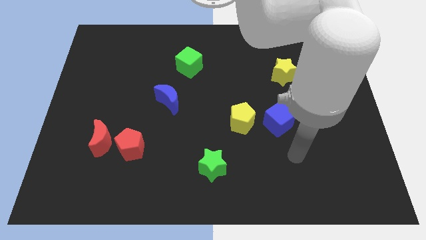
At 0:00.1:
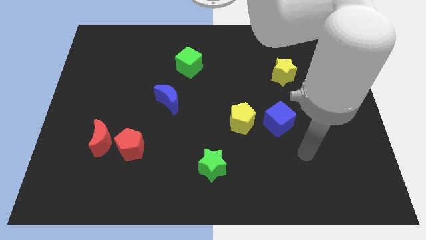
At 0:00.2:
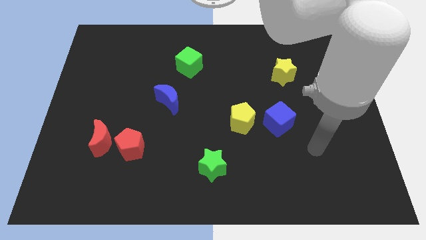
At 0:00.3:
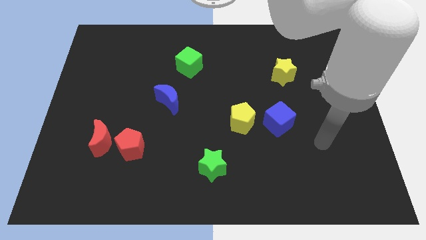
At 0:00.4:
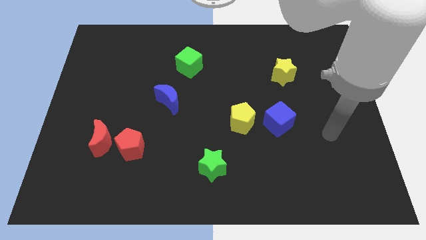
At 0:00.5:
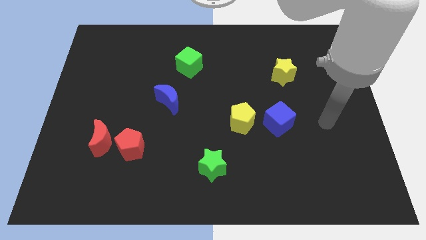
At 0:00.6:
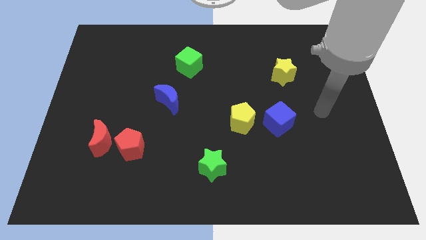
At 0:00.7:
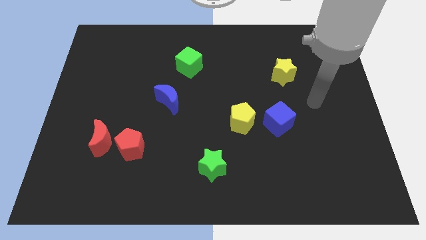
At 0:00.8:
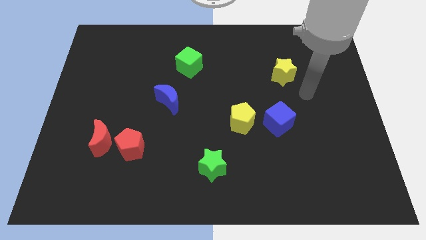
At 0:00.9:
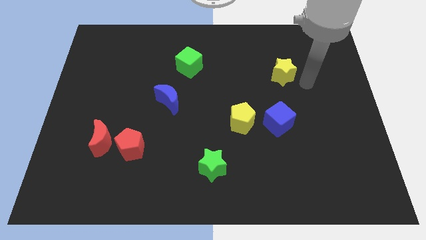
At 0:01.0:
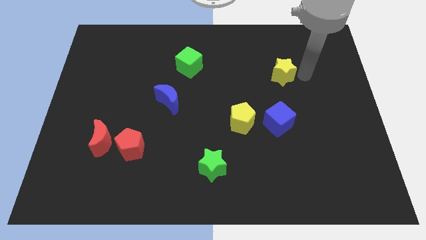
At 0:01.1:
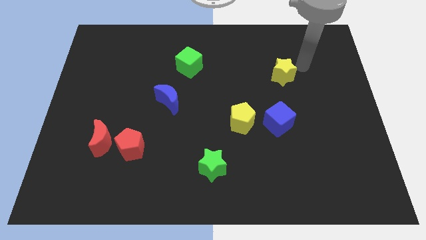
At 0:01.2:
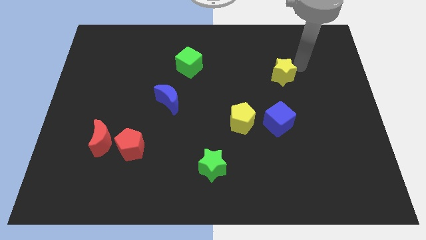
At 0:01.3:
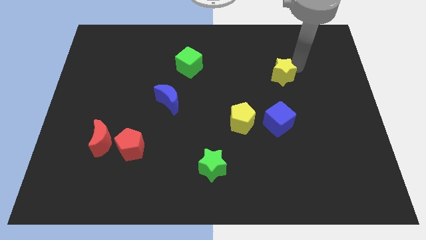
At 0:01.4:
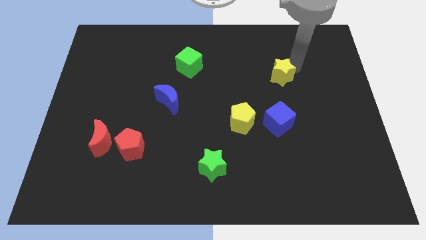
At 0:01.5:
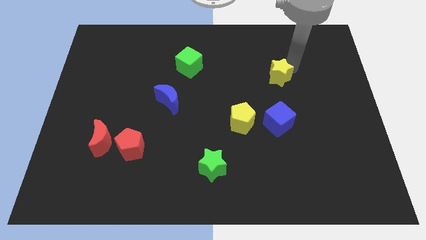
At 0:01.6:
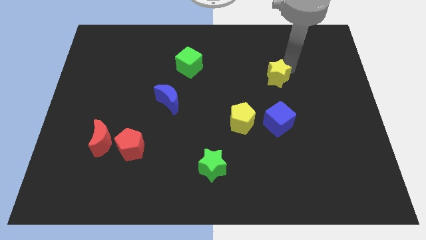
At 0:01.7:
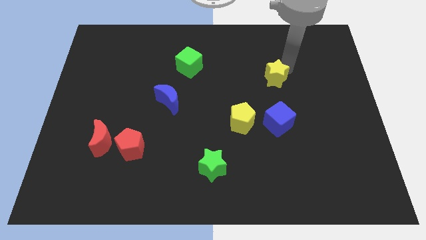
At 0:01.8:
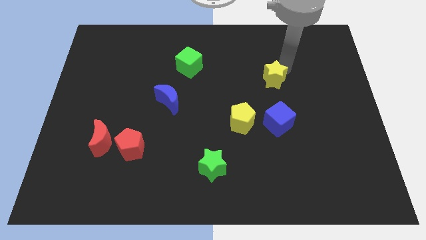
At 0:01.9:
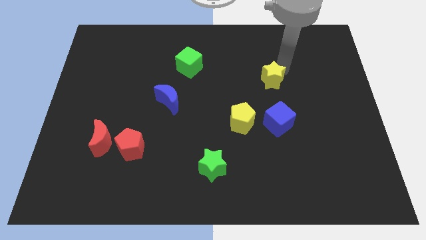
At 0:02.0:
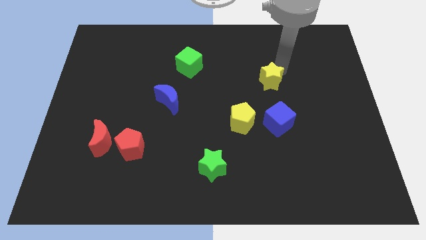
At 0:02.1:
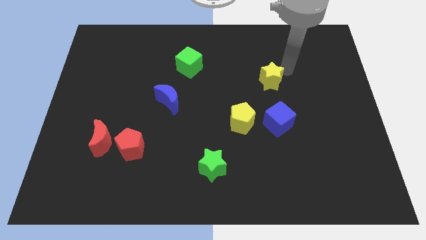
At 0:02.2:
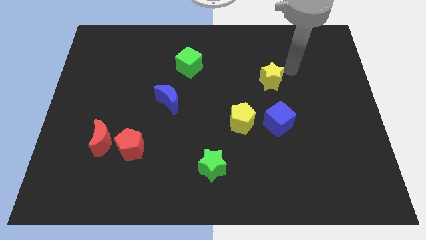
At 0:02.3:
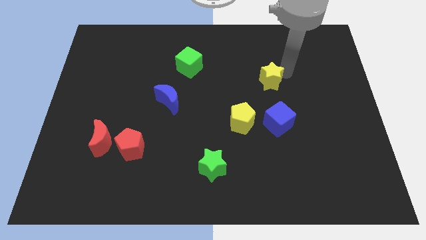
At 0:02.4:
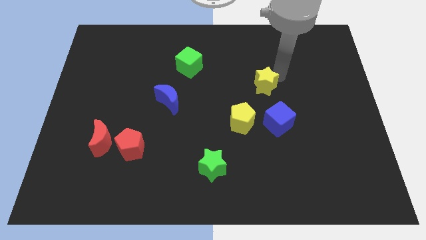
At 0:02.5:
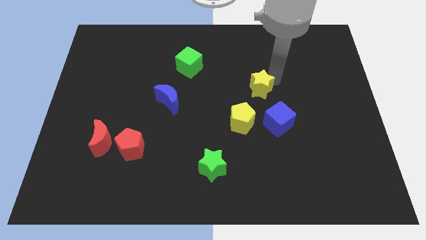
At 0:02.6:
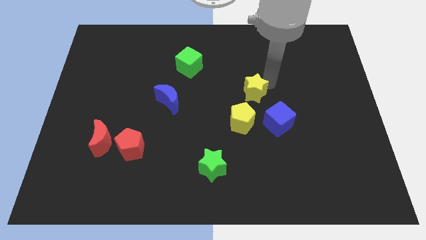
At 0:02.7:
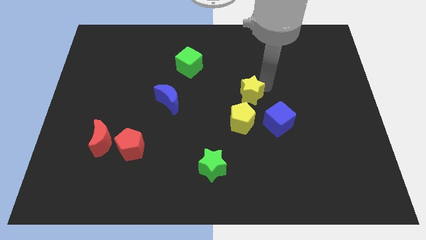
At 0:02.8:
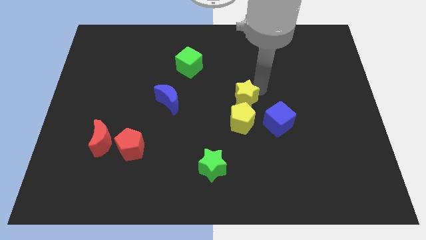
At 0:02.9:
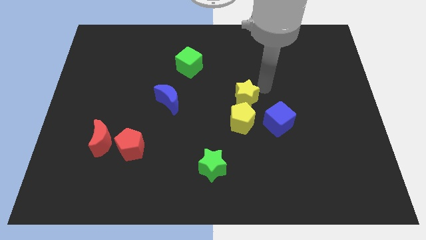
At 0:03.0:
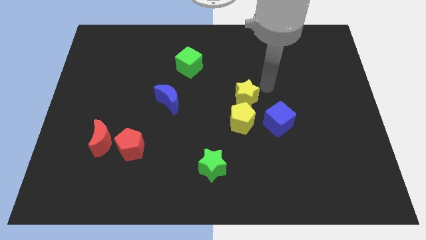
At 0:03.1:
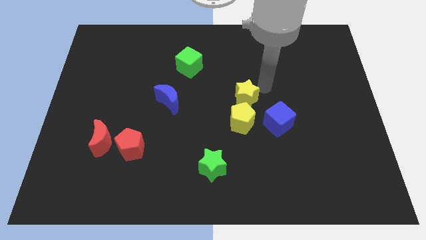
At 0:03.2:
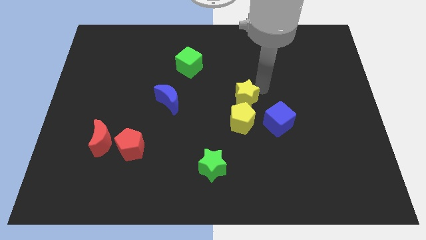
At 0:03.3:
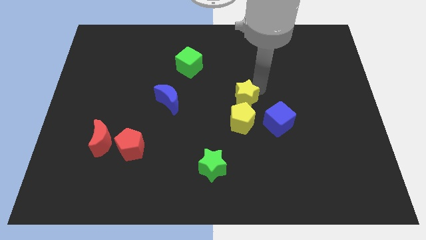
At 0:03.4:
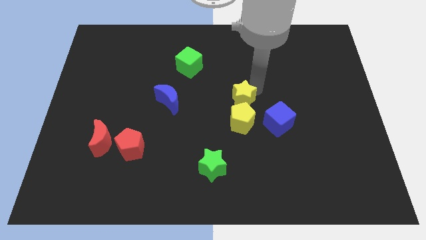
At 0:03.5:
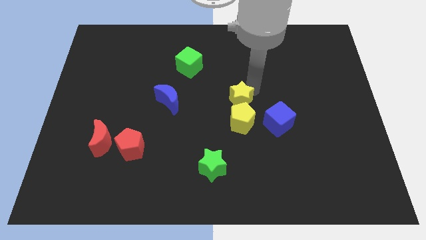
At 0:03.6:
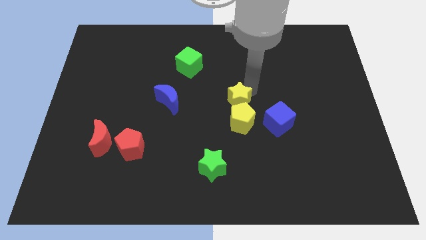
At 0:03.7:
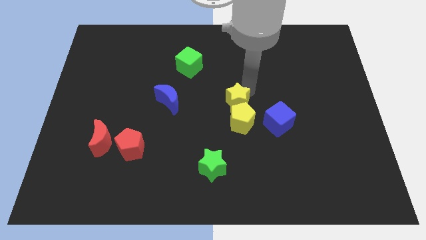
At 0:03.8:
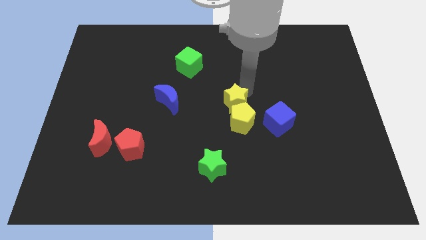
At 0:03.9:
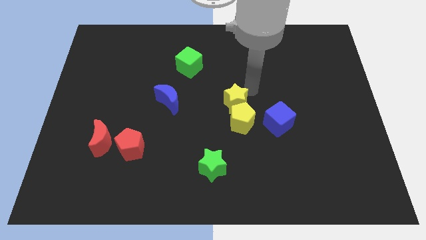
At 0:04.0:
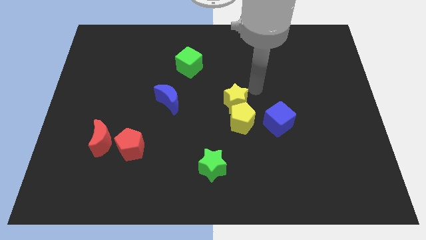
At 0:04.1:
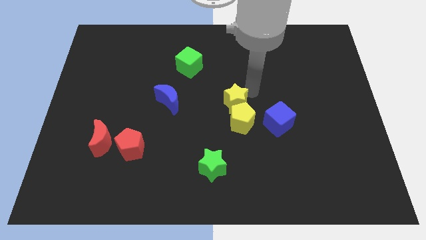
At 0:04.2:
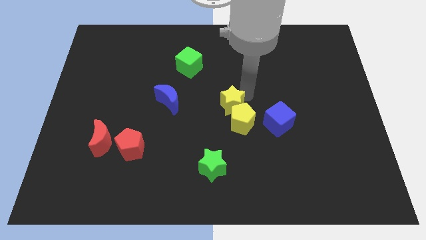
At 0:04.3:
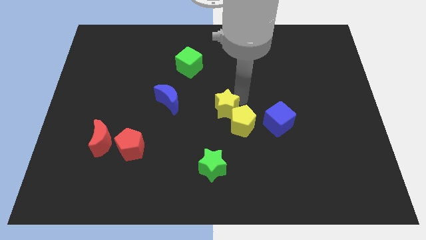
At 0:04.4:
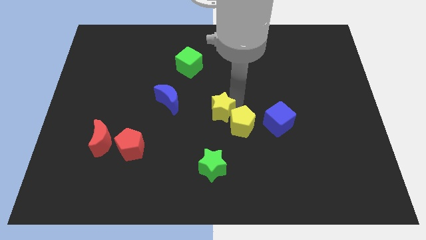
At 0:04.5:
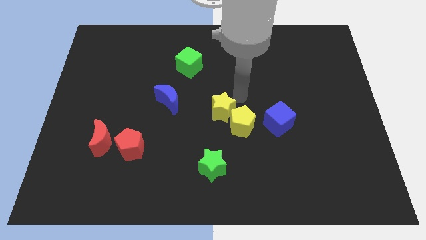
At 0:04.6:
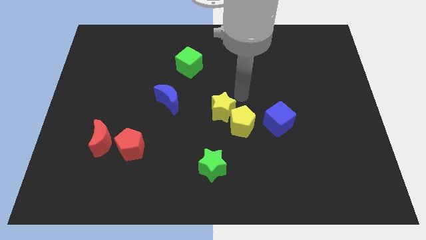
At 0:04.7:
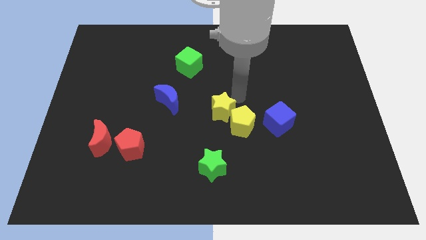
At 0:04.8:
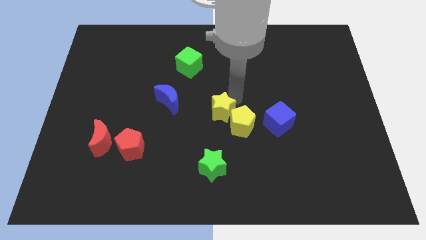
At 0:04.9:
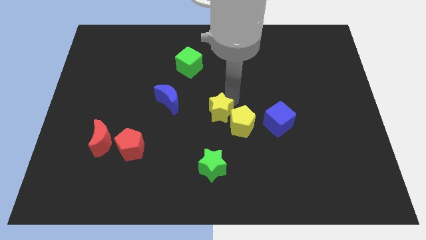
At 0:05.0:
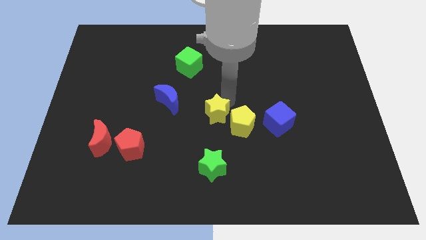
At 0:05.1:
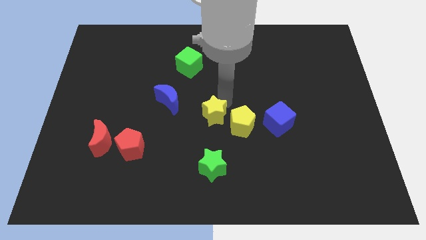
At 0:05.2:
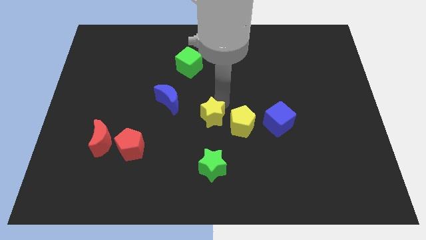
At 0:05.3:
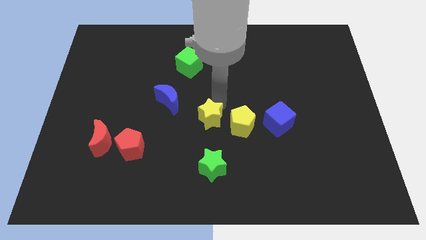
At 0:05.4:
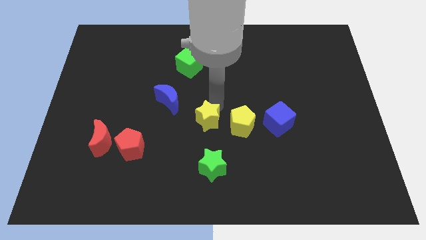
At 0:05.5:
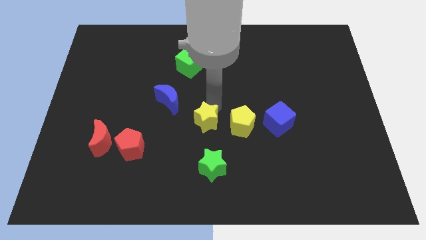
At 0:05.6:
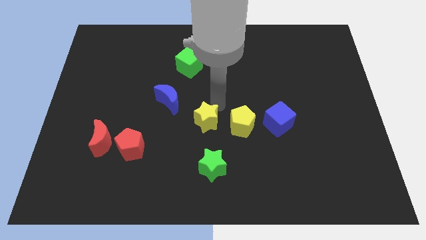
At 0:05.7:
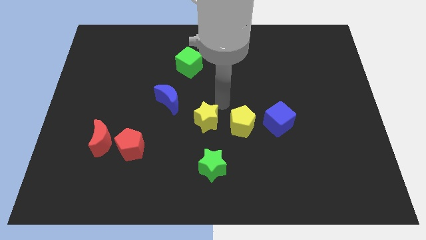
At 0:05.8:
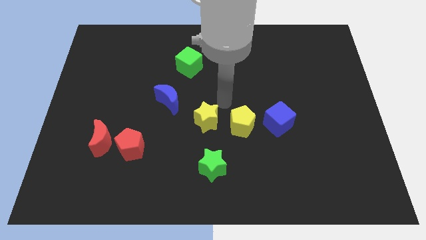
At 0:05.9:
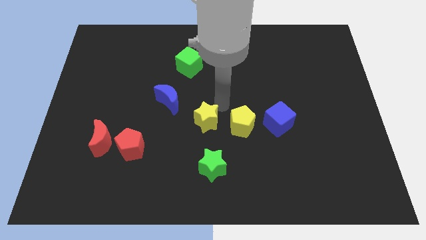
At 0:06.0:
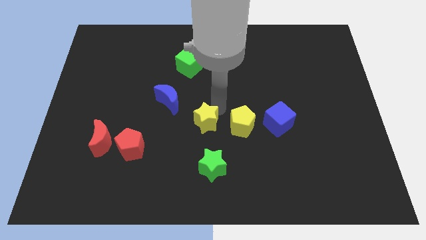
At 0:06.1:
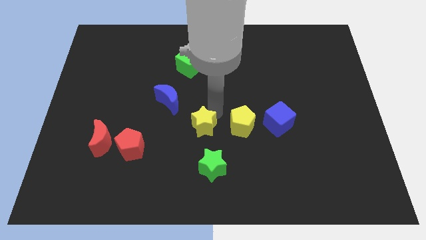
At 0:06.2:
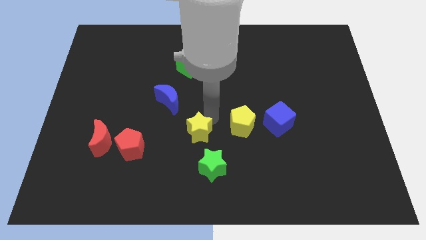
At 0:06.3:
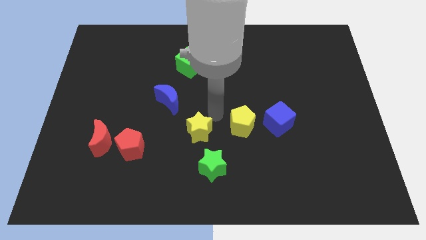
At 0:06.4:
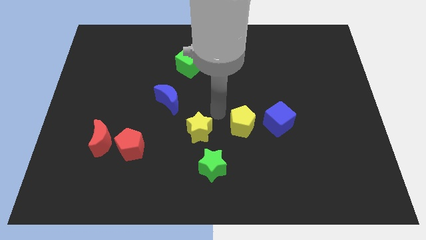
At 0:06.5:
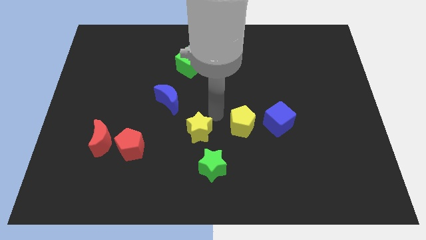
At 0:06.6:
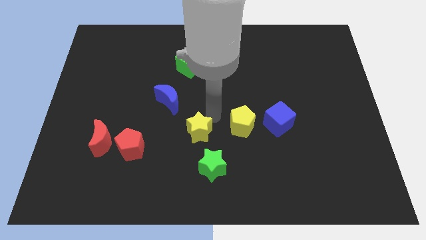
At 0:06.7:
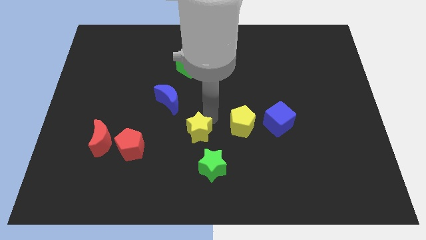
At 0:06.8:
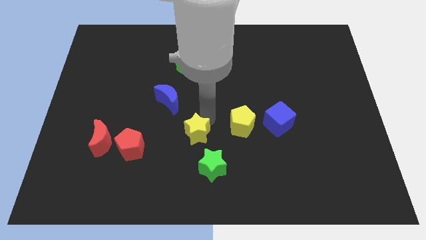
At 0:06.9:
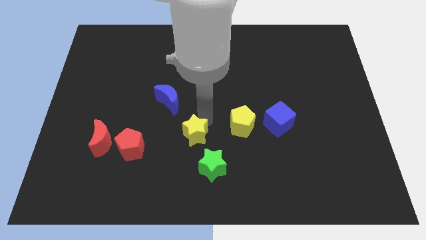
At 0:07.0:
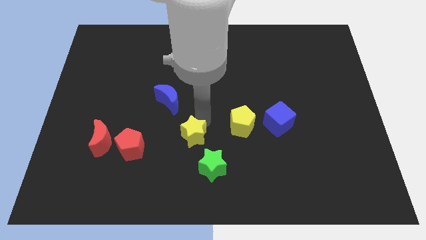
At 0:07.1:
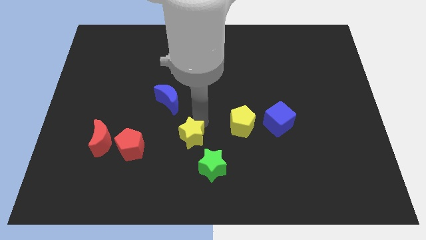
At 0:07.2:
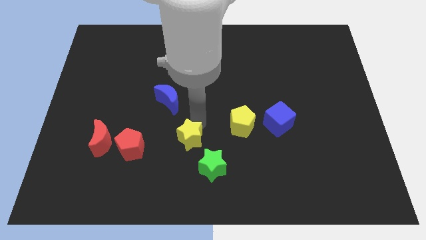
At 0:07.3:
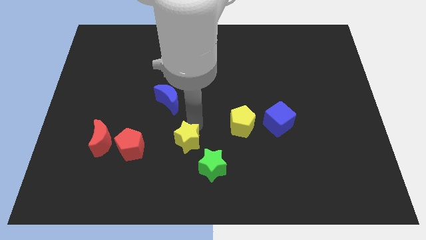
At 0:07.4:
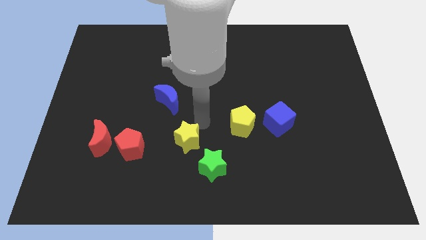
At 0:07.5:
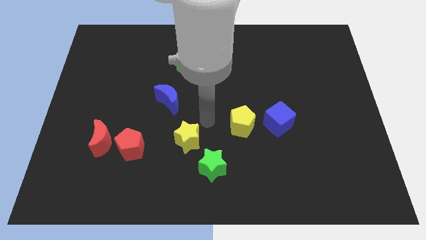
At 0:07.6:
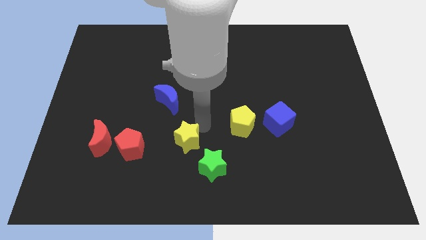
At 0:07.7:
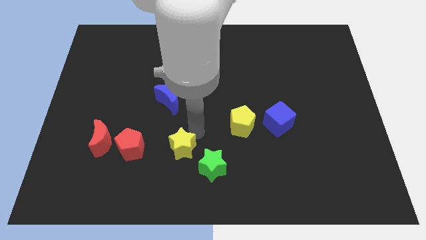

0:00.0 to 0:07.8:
move the yellow star left of the green star
